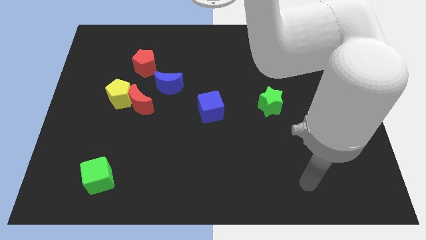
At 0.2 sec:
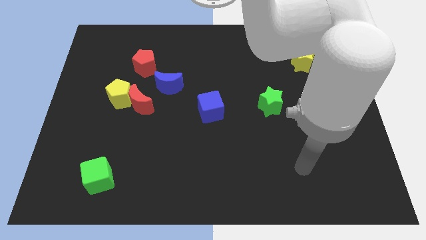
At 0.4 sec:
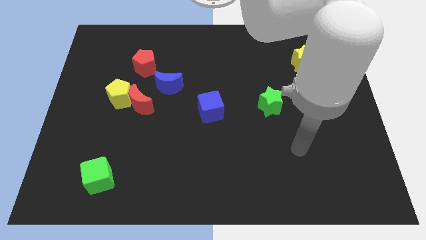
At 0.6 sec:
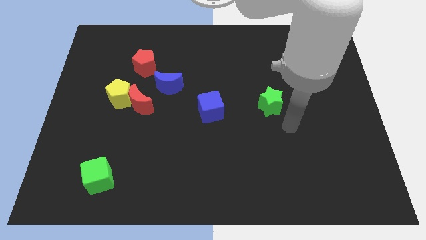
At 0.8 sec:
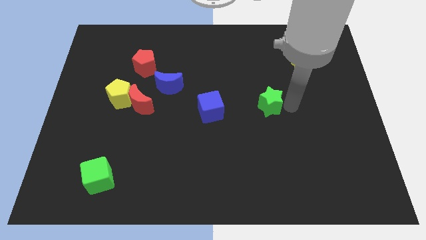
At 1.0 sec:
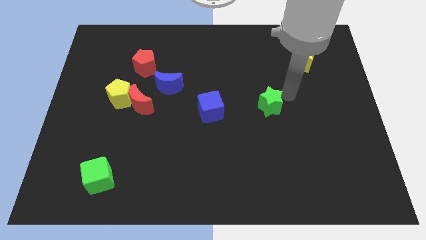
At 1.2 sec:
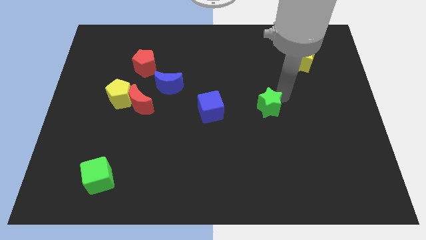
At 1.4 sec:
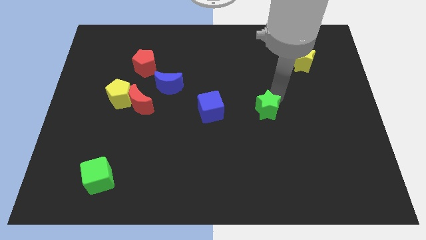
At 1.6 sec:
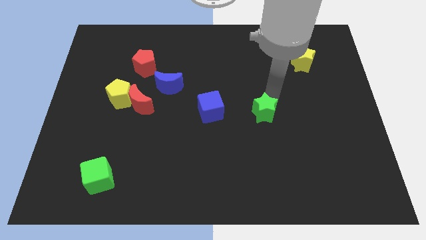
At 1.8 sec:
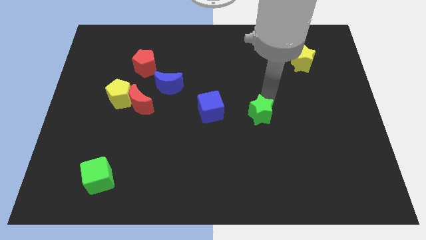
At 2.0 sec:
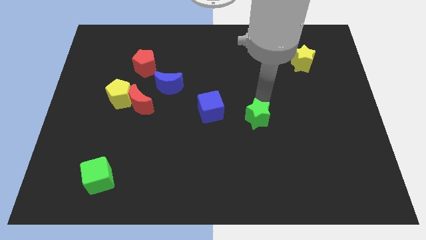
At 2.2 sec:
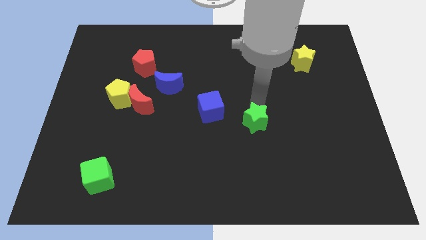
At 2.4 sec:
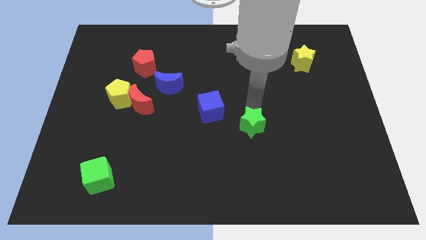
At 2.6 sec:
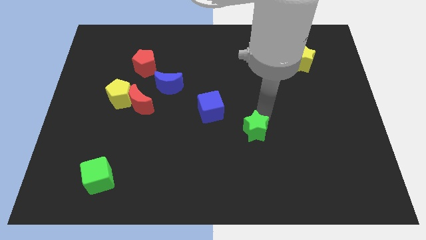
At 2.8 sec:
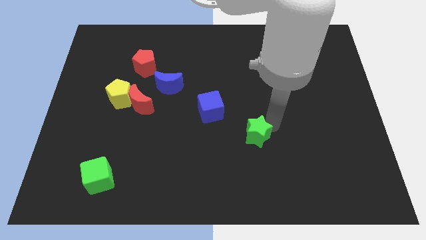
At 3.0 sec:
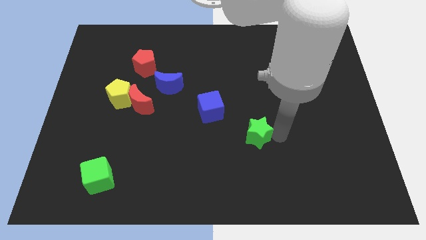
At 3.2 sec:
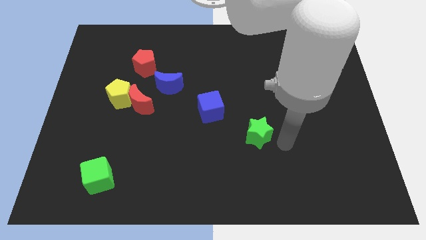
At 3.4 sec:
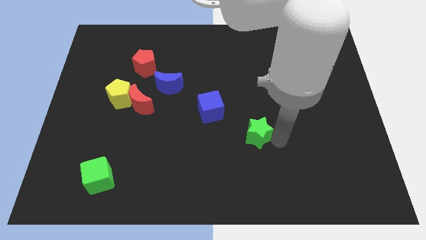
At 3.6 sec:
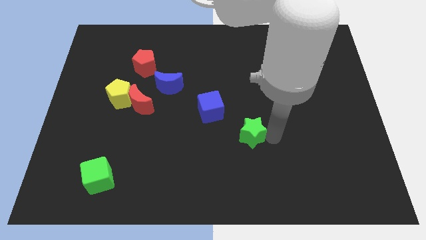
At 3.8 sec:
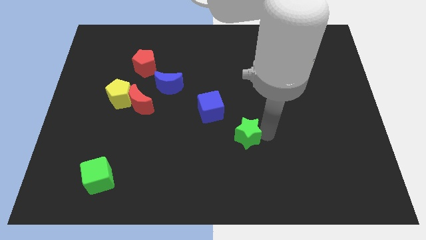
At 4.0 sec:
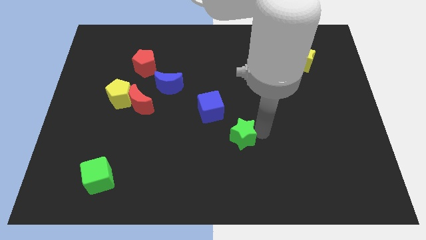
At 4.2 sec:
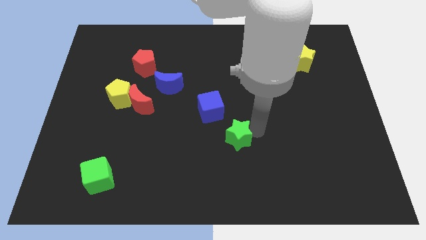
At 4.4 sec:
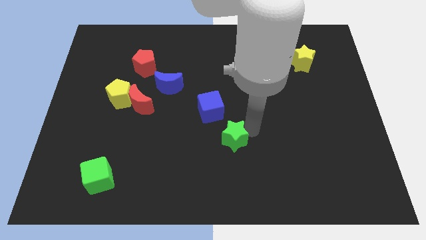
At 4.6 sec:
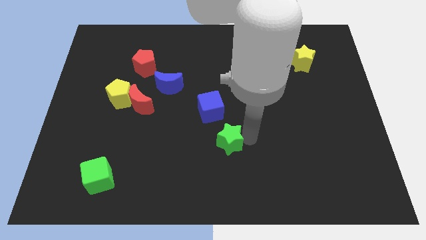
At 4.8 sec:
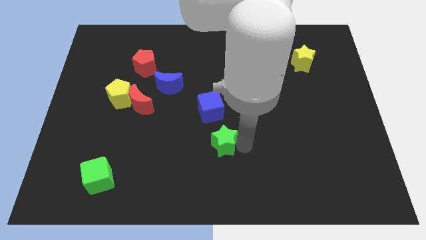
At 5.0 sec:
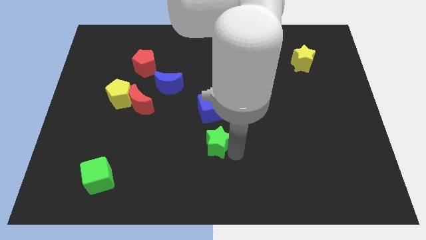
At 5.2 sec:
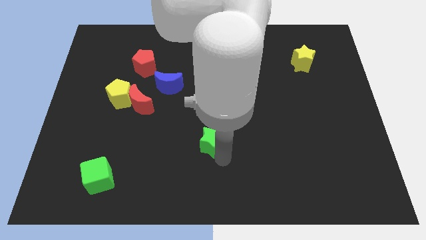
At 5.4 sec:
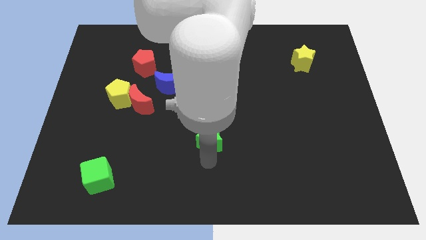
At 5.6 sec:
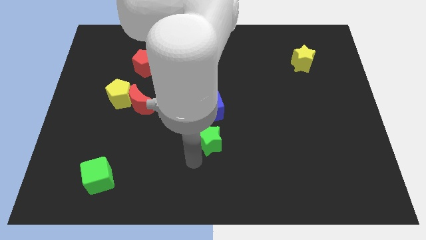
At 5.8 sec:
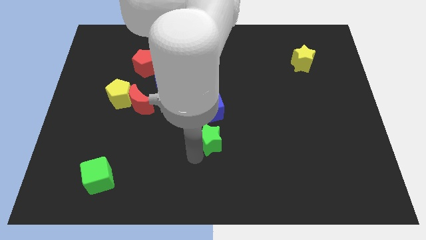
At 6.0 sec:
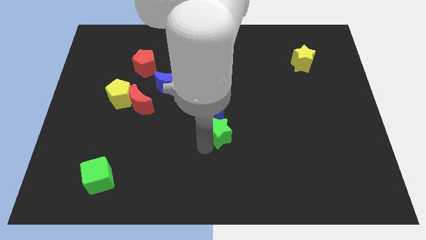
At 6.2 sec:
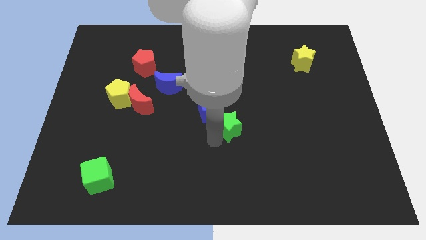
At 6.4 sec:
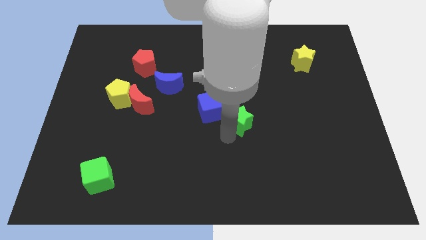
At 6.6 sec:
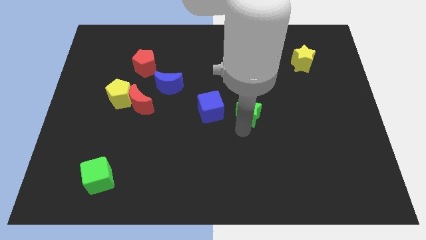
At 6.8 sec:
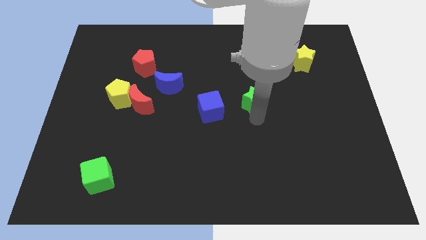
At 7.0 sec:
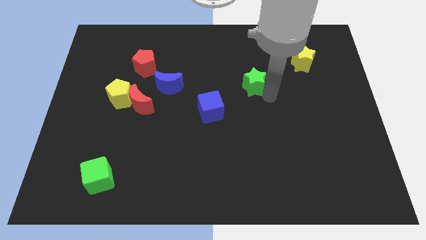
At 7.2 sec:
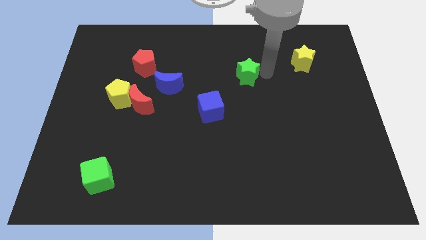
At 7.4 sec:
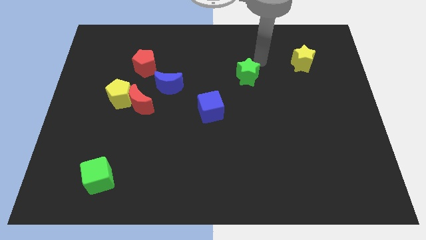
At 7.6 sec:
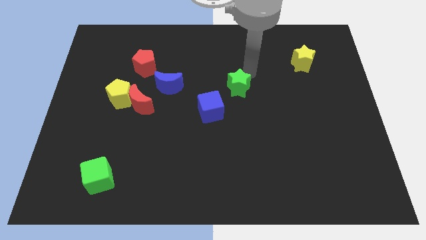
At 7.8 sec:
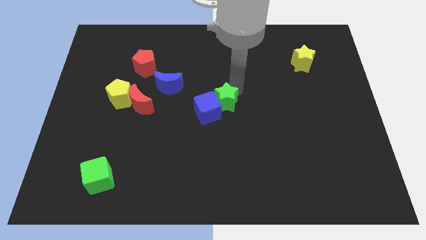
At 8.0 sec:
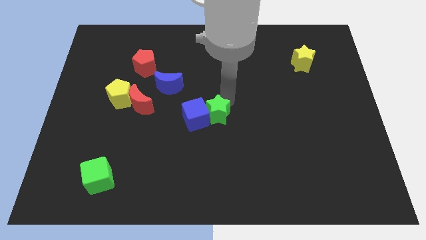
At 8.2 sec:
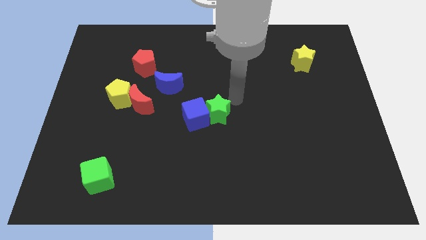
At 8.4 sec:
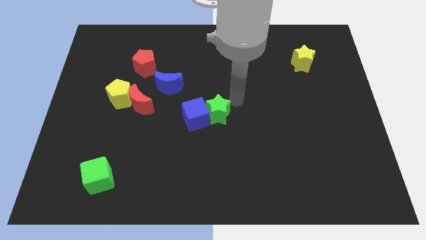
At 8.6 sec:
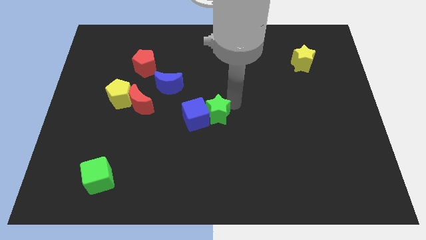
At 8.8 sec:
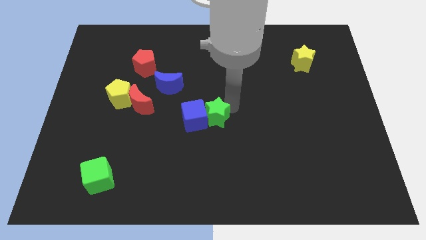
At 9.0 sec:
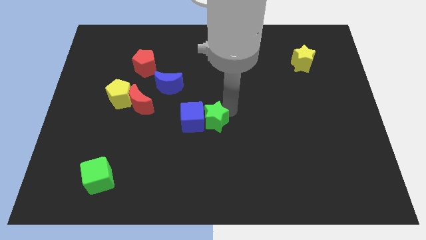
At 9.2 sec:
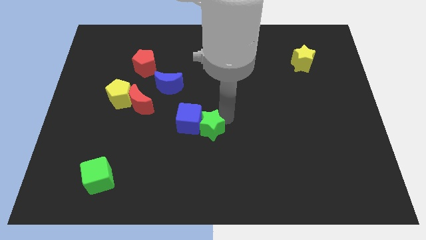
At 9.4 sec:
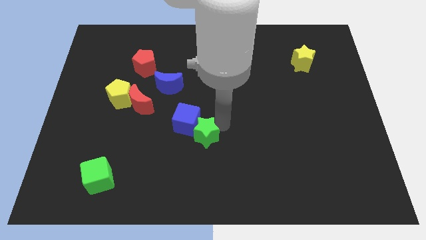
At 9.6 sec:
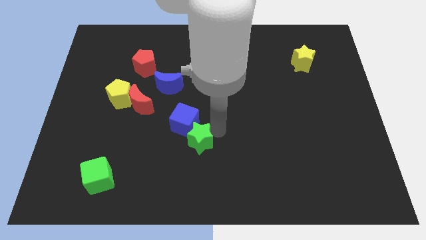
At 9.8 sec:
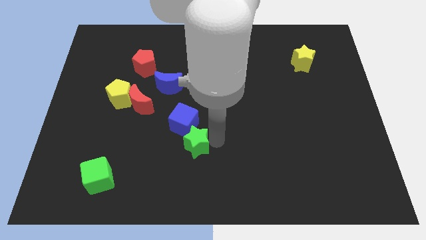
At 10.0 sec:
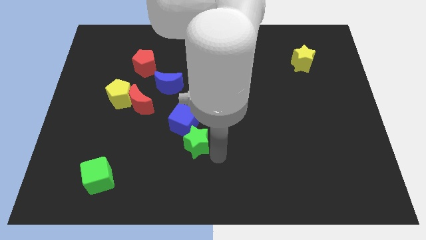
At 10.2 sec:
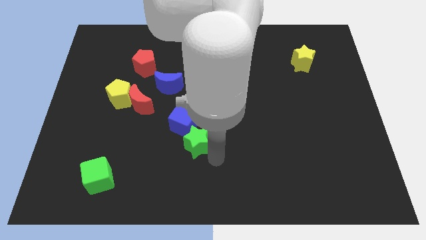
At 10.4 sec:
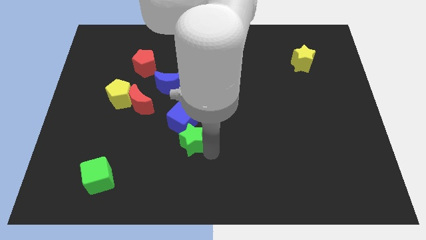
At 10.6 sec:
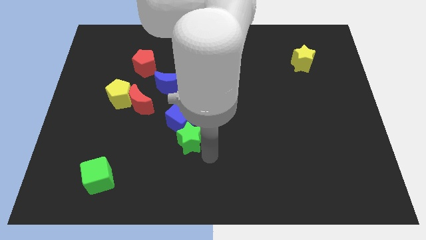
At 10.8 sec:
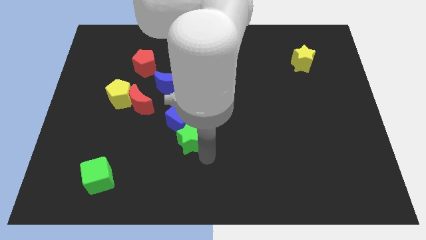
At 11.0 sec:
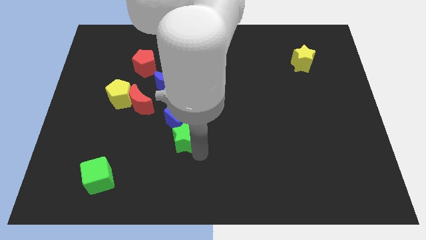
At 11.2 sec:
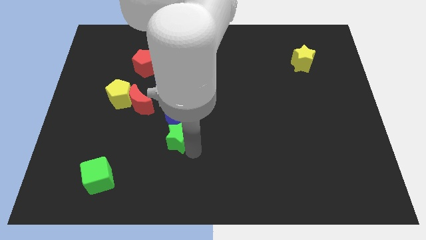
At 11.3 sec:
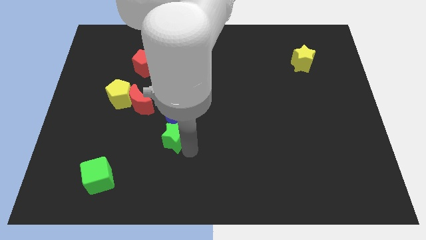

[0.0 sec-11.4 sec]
put the green star below the blue moon
